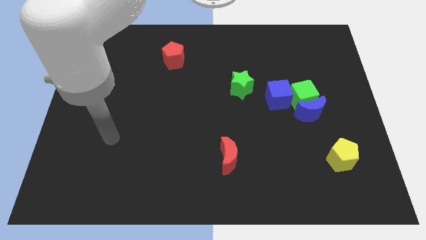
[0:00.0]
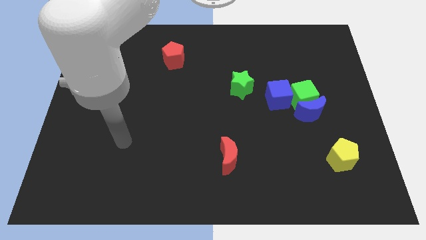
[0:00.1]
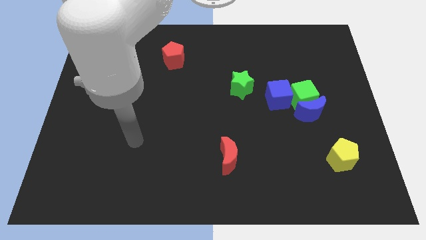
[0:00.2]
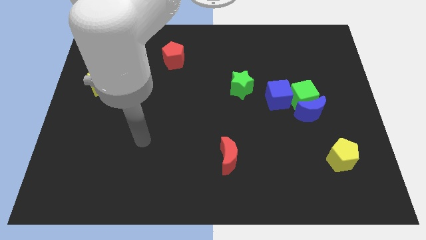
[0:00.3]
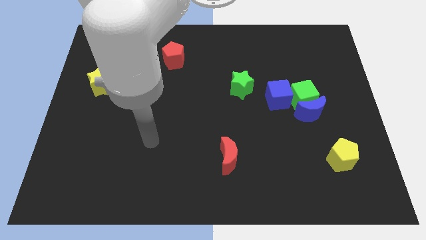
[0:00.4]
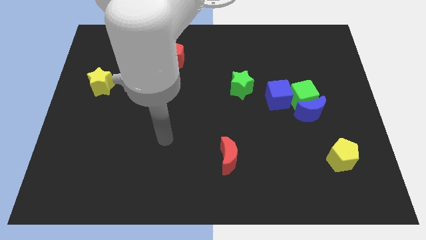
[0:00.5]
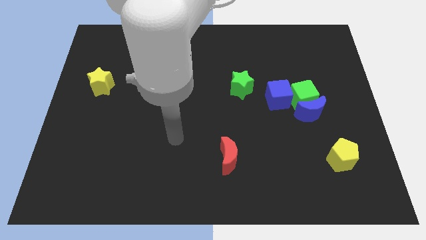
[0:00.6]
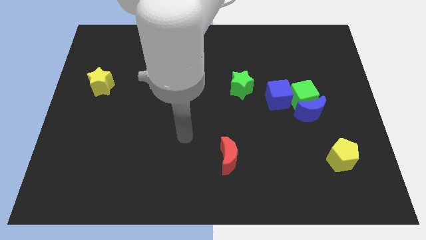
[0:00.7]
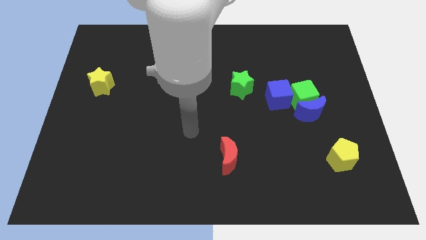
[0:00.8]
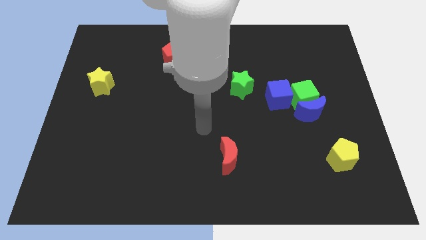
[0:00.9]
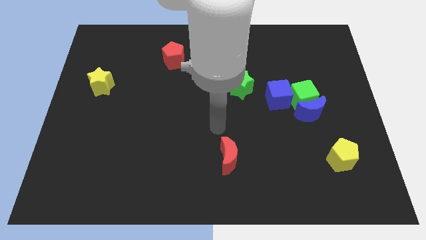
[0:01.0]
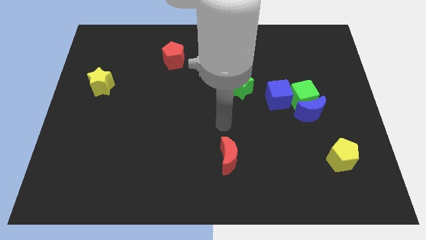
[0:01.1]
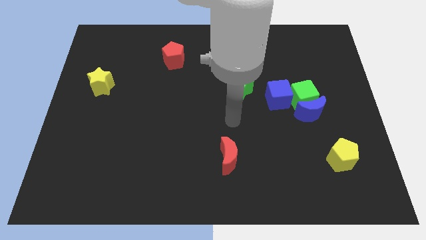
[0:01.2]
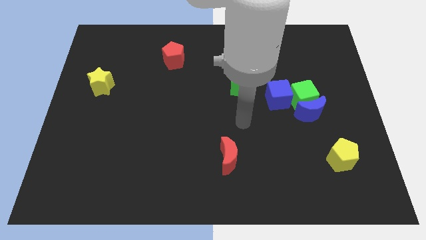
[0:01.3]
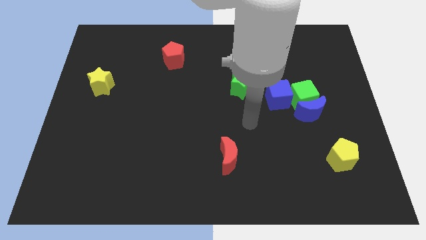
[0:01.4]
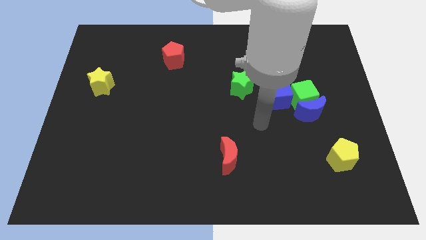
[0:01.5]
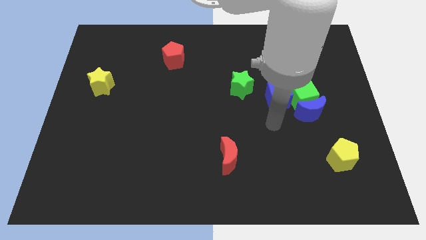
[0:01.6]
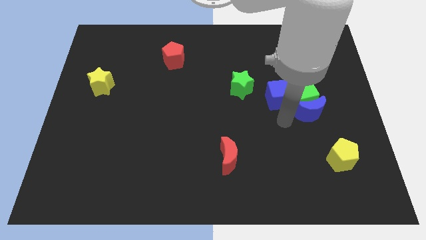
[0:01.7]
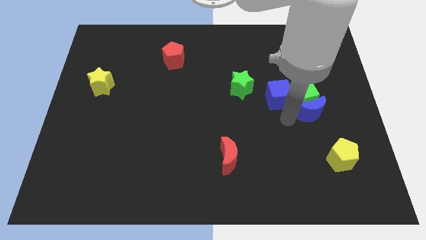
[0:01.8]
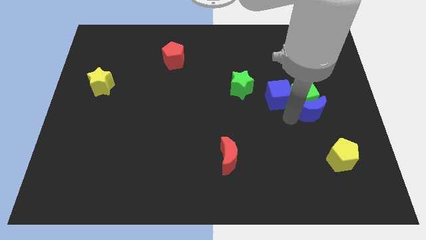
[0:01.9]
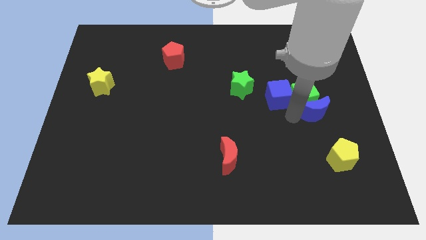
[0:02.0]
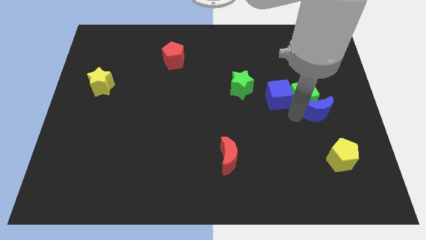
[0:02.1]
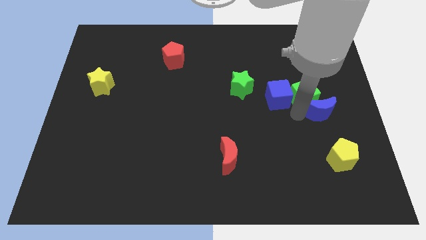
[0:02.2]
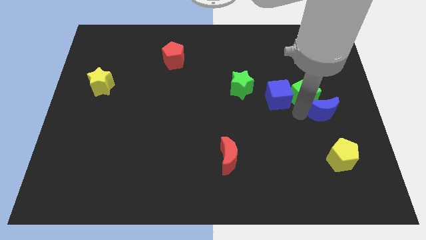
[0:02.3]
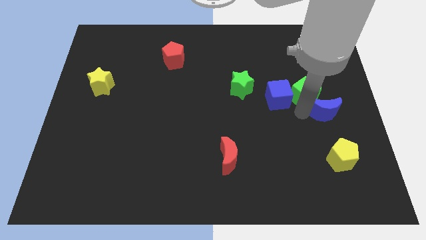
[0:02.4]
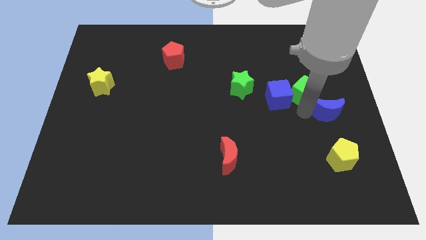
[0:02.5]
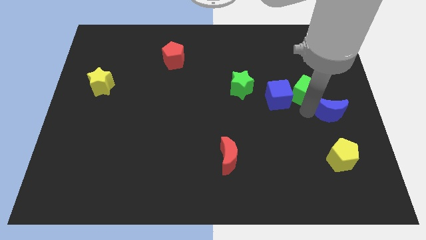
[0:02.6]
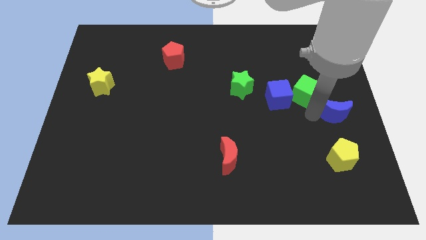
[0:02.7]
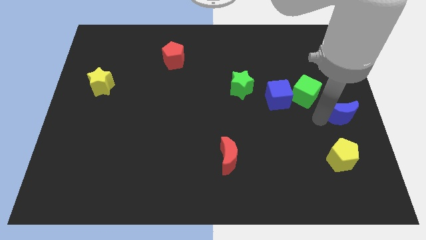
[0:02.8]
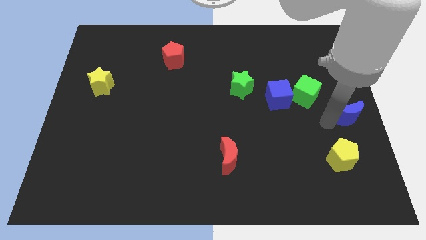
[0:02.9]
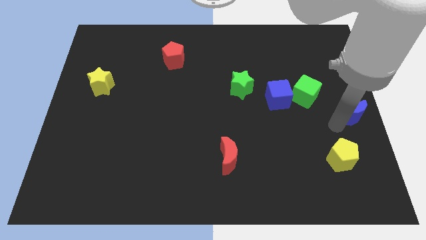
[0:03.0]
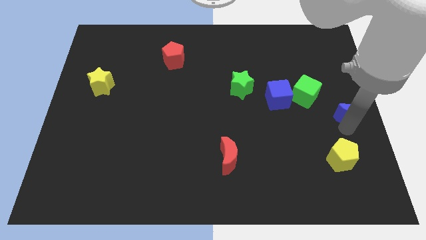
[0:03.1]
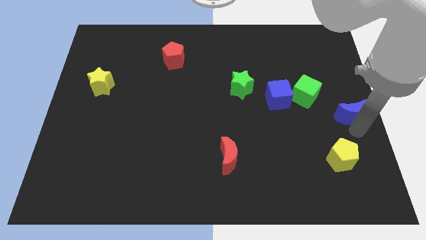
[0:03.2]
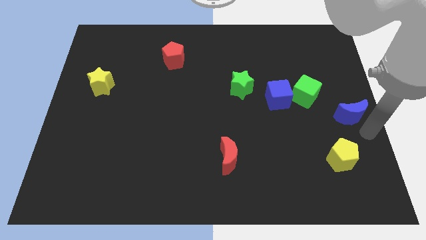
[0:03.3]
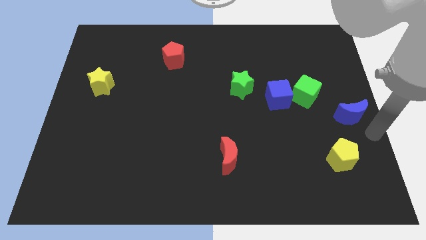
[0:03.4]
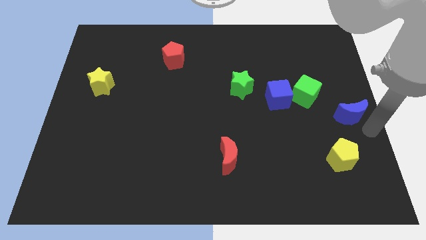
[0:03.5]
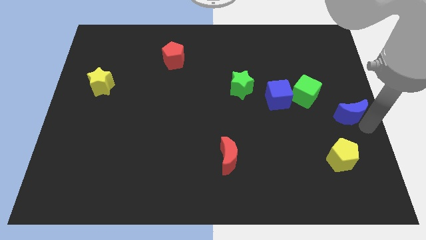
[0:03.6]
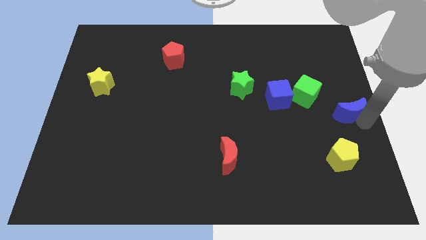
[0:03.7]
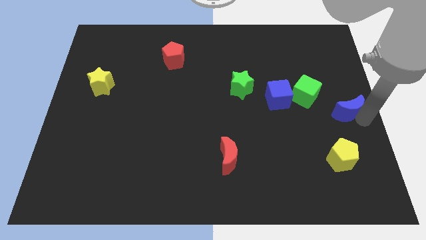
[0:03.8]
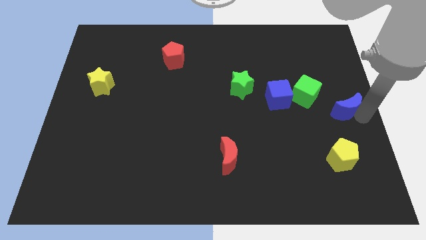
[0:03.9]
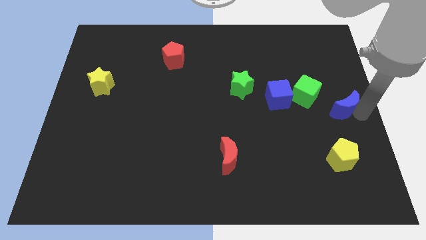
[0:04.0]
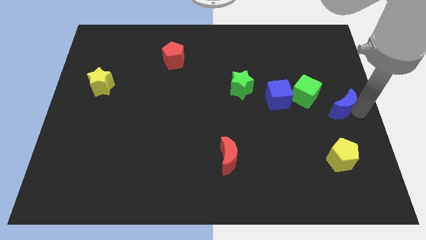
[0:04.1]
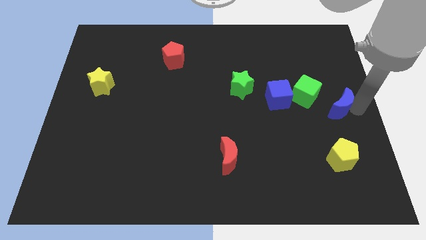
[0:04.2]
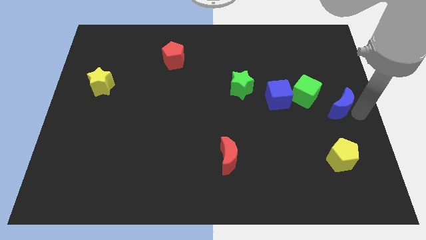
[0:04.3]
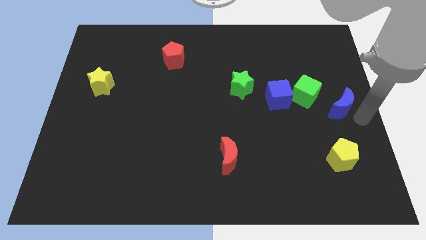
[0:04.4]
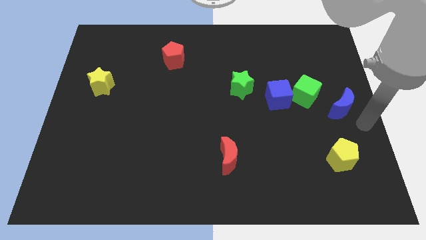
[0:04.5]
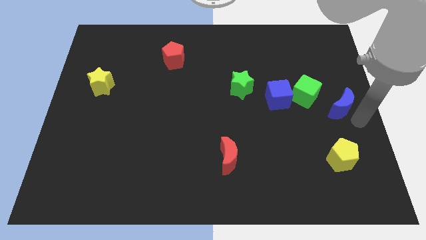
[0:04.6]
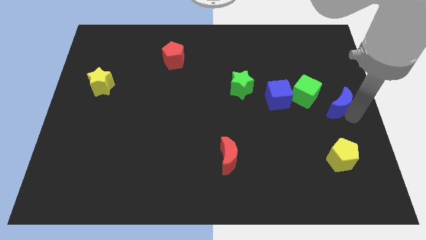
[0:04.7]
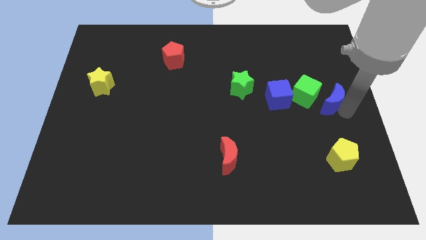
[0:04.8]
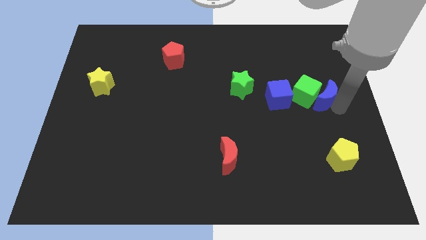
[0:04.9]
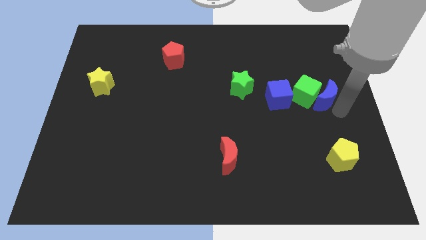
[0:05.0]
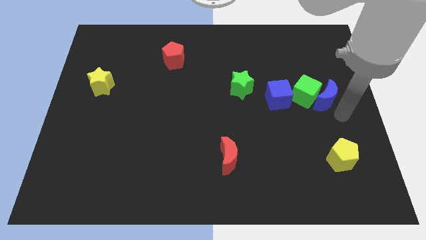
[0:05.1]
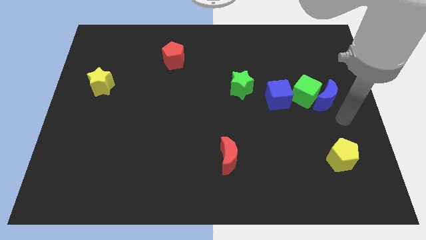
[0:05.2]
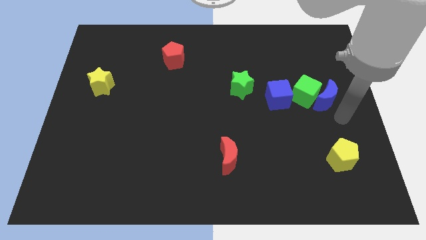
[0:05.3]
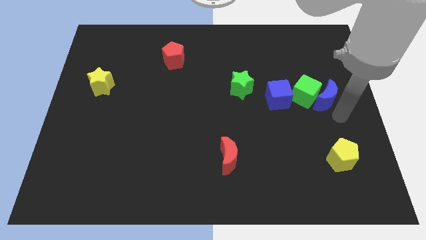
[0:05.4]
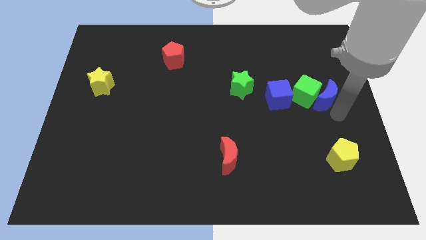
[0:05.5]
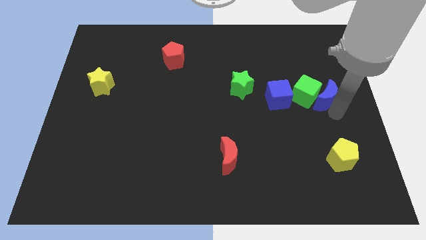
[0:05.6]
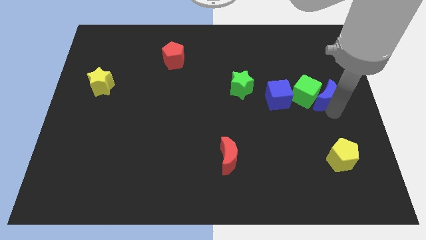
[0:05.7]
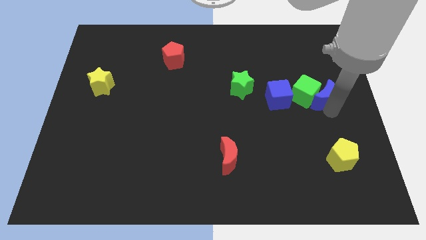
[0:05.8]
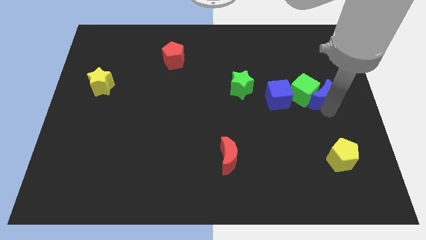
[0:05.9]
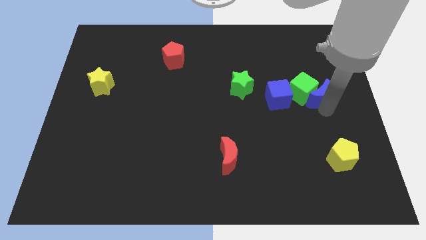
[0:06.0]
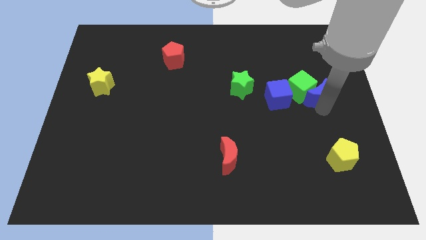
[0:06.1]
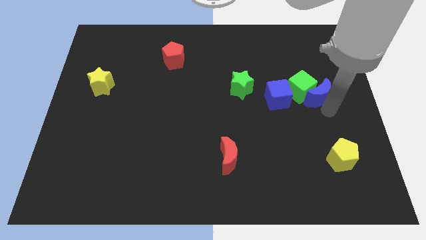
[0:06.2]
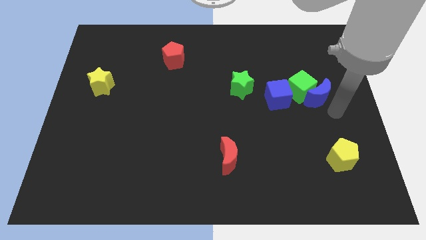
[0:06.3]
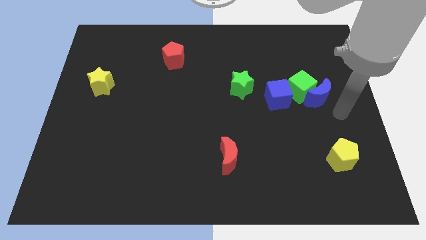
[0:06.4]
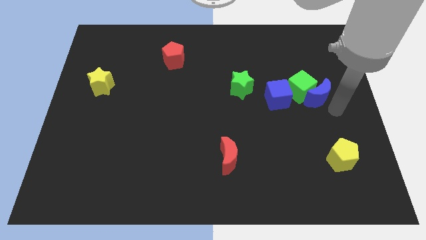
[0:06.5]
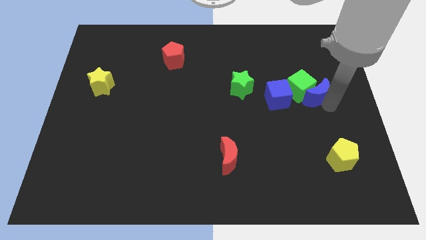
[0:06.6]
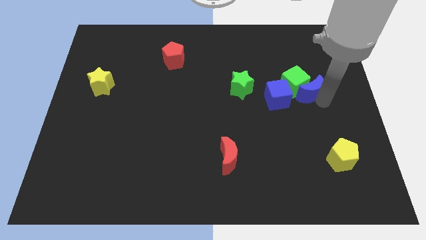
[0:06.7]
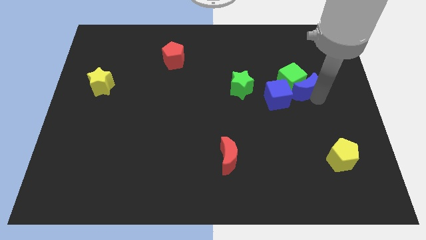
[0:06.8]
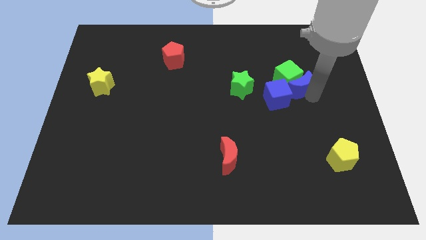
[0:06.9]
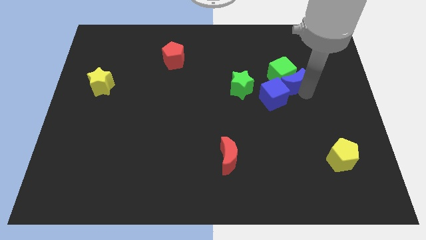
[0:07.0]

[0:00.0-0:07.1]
slide the blue moon slightly upwards and to the left diagonally

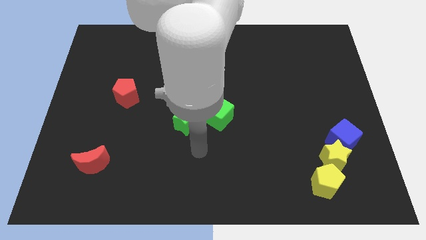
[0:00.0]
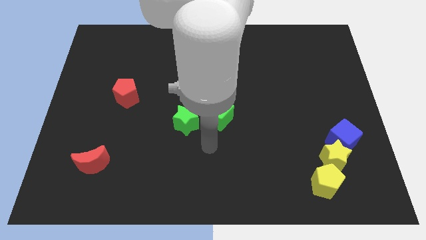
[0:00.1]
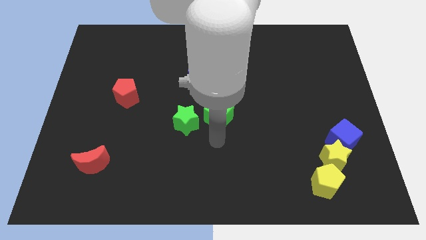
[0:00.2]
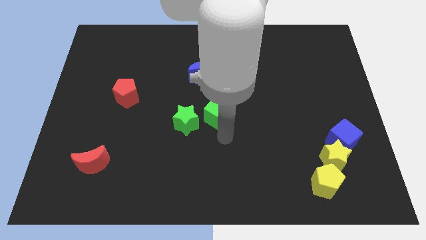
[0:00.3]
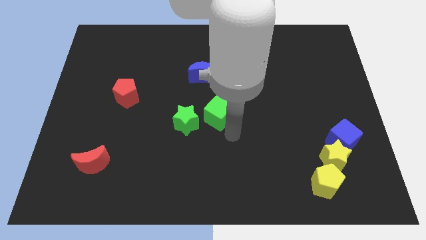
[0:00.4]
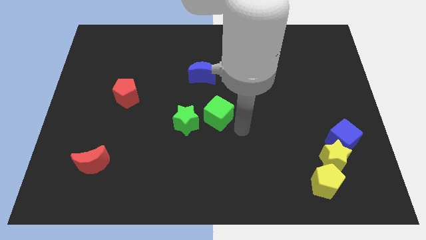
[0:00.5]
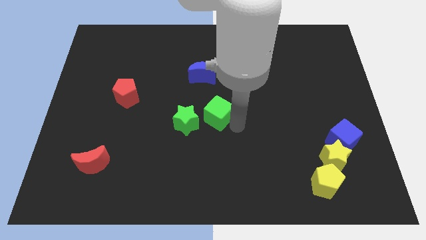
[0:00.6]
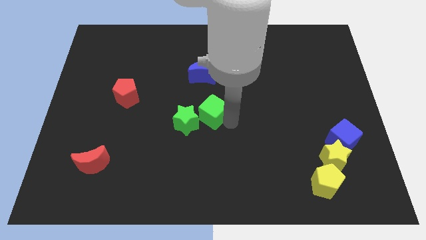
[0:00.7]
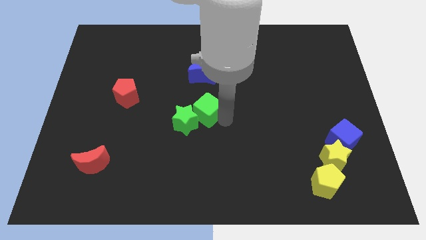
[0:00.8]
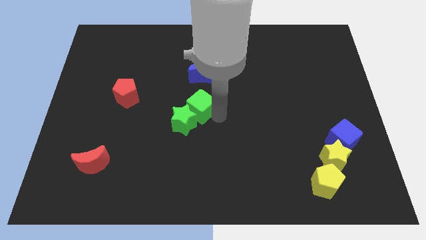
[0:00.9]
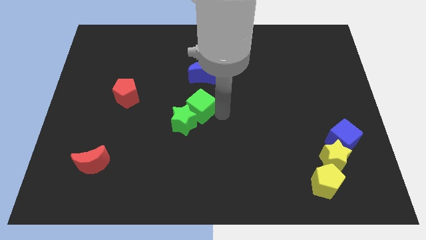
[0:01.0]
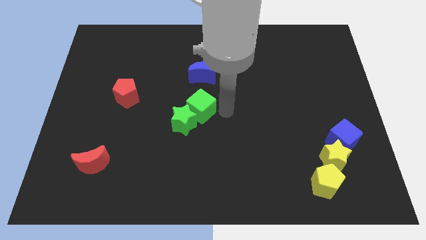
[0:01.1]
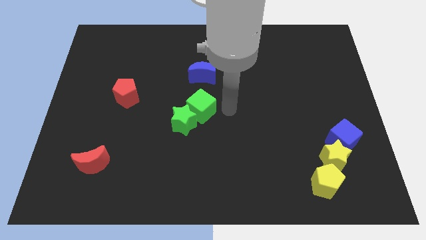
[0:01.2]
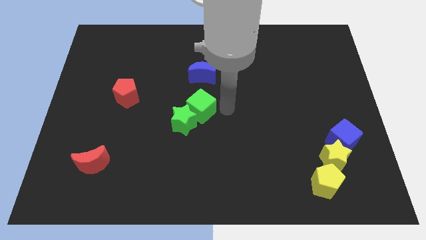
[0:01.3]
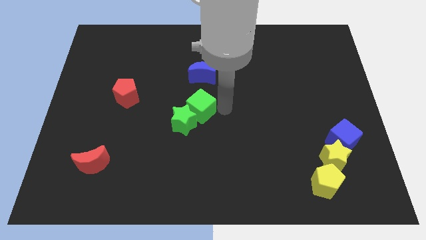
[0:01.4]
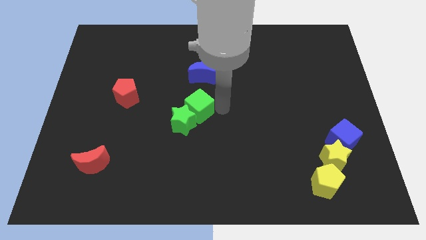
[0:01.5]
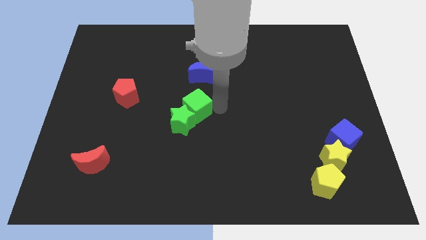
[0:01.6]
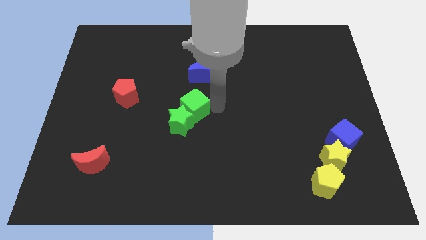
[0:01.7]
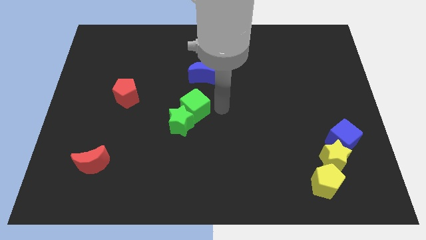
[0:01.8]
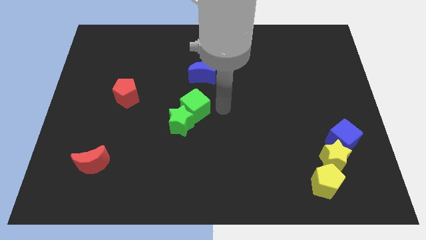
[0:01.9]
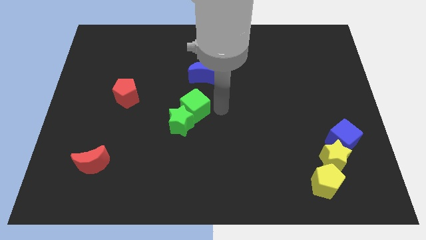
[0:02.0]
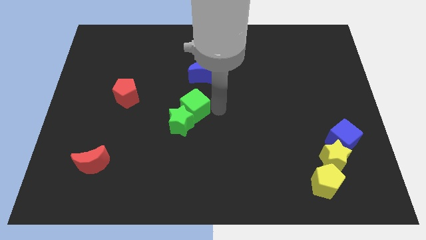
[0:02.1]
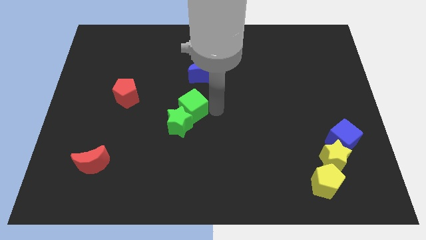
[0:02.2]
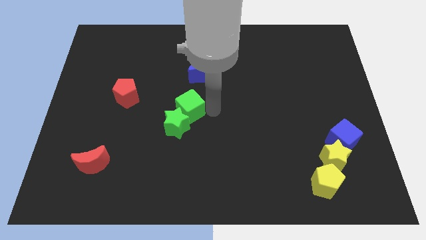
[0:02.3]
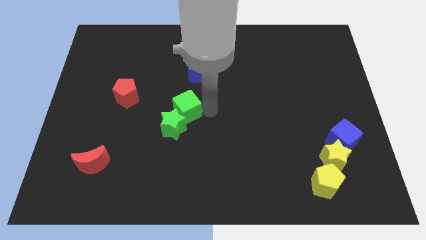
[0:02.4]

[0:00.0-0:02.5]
slightly push the green cube left
